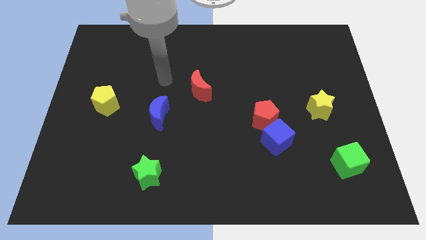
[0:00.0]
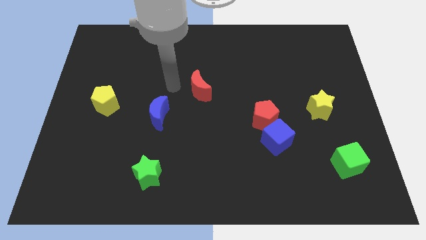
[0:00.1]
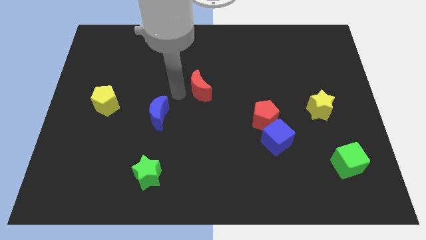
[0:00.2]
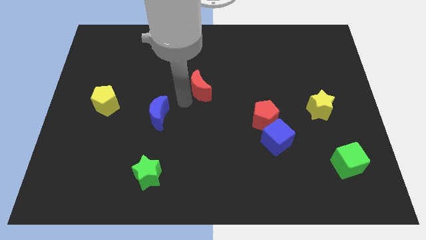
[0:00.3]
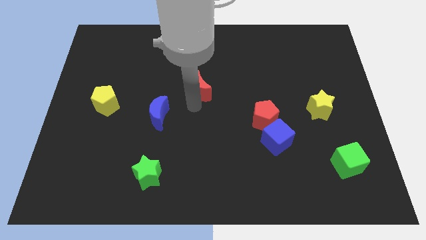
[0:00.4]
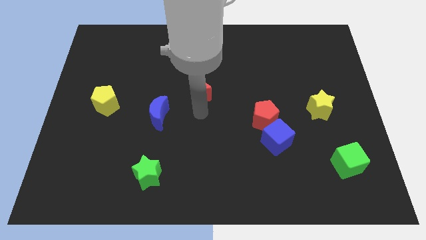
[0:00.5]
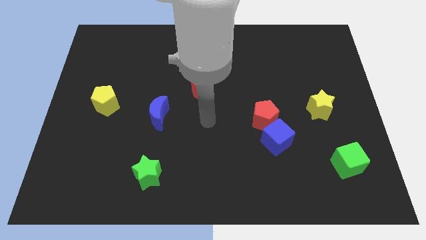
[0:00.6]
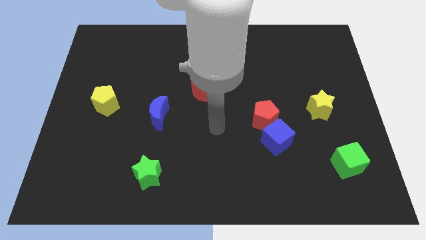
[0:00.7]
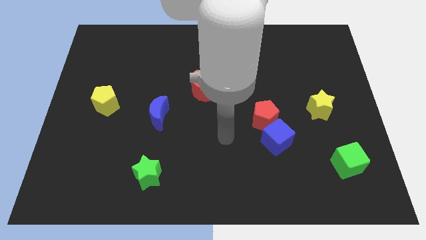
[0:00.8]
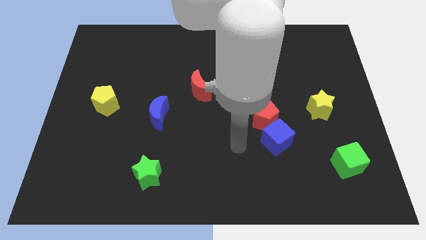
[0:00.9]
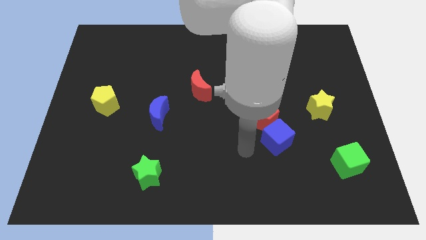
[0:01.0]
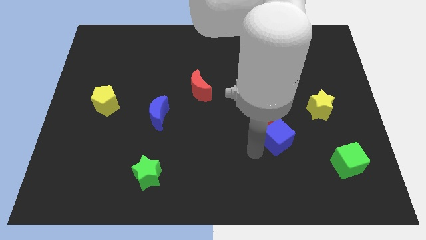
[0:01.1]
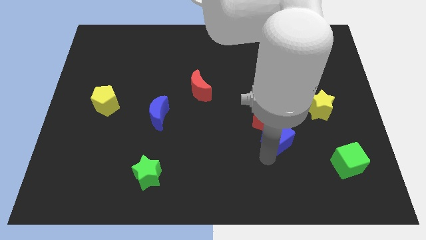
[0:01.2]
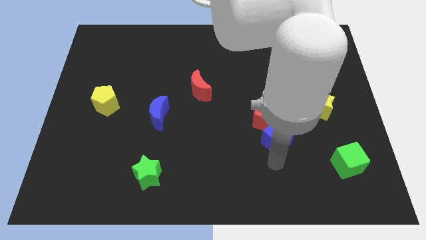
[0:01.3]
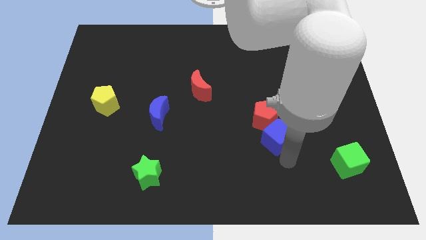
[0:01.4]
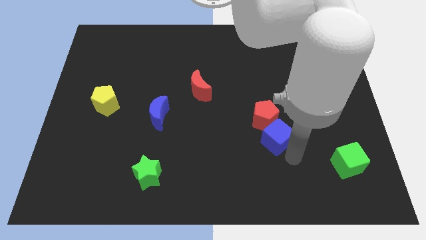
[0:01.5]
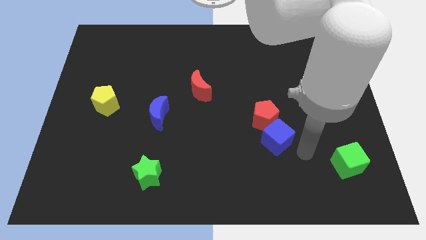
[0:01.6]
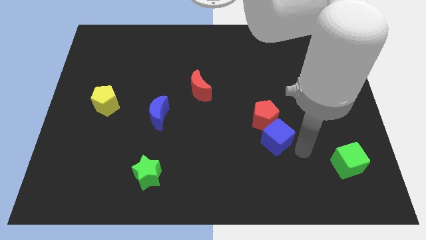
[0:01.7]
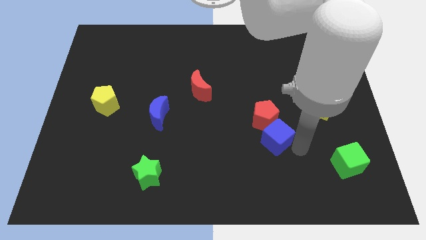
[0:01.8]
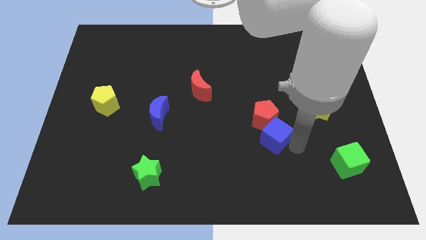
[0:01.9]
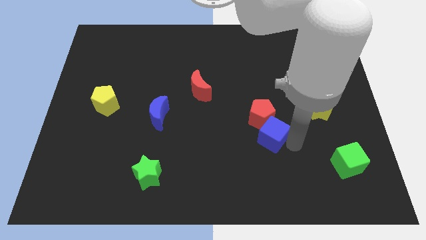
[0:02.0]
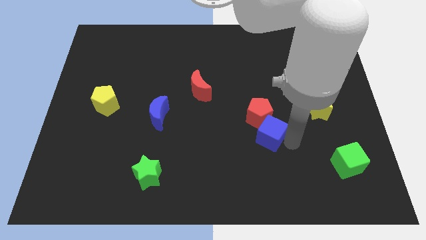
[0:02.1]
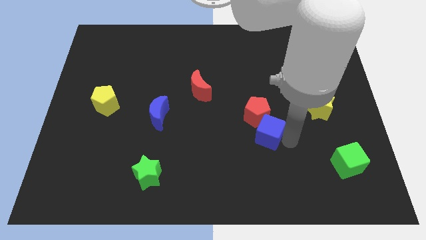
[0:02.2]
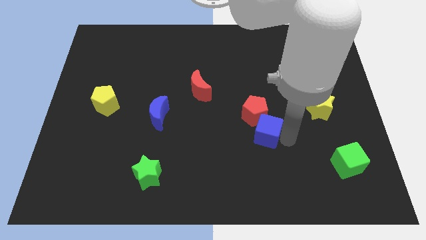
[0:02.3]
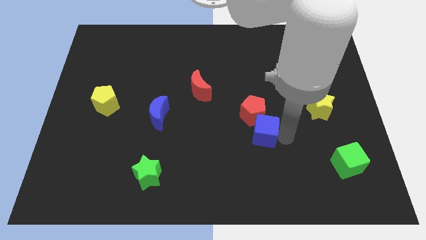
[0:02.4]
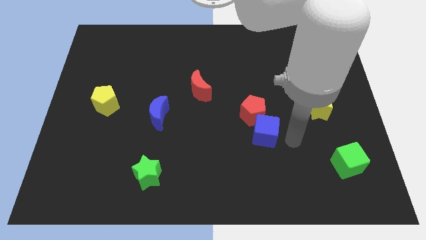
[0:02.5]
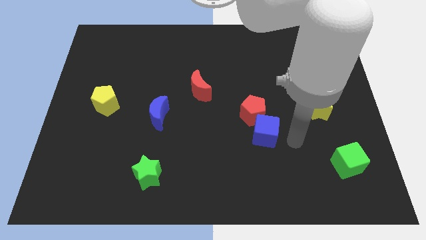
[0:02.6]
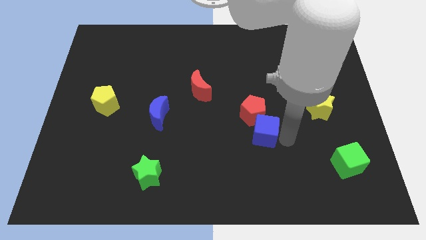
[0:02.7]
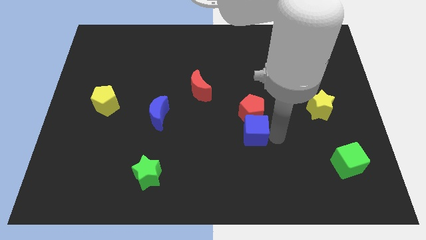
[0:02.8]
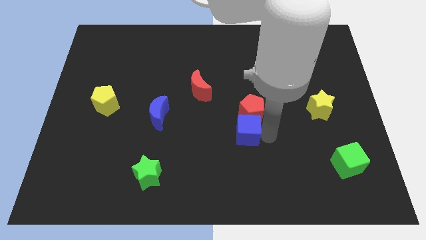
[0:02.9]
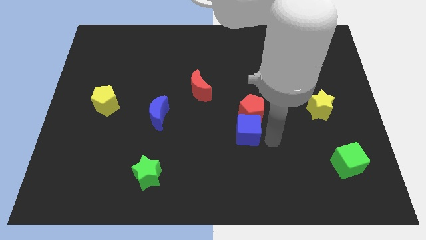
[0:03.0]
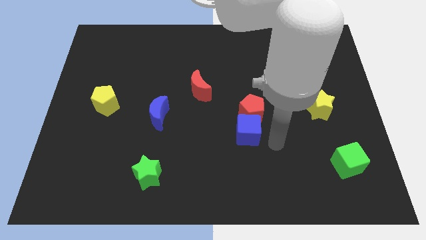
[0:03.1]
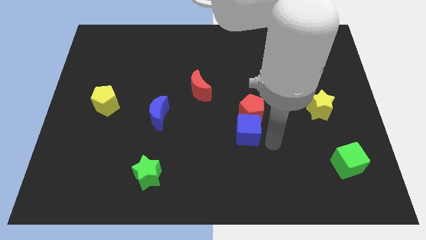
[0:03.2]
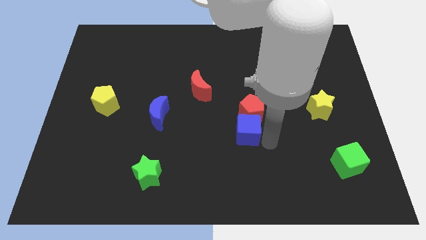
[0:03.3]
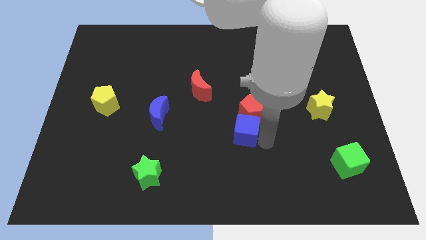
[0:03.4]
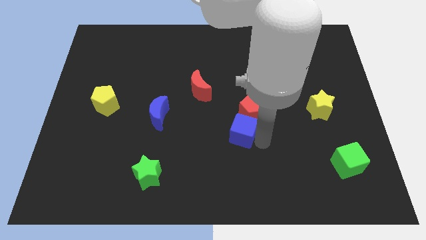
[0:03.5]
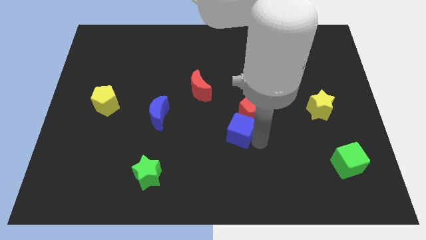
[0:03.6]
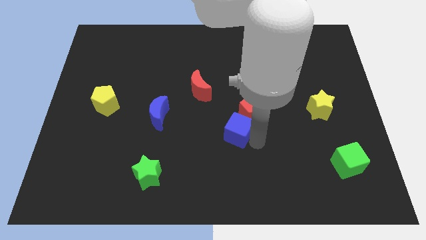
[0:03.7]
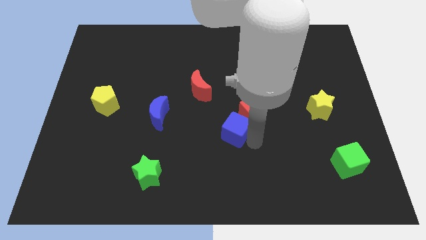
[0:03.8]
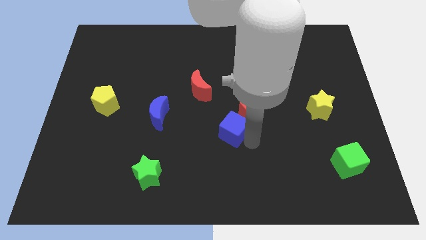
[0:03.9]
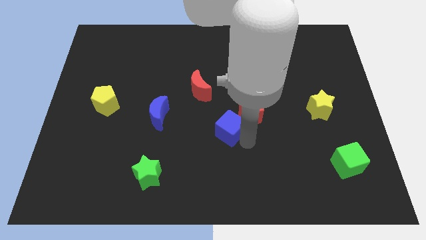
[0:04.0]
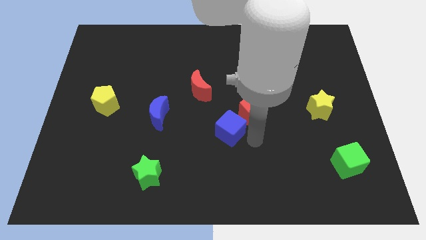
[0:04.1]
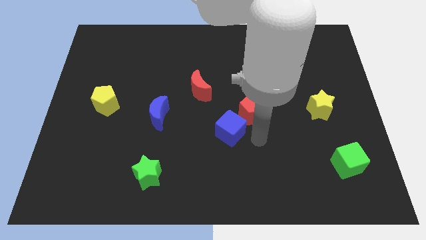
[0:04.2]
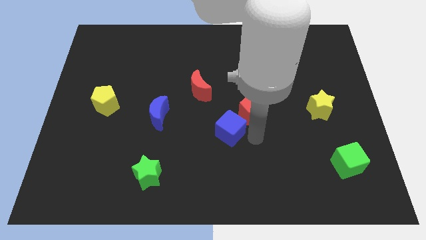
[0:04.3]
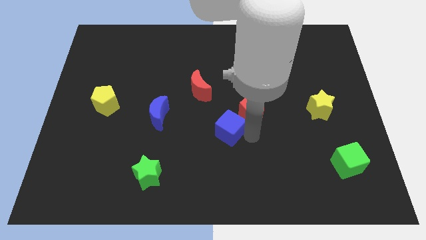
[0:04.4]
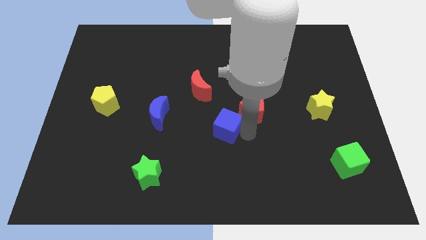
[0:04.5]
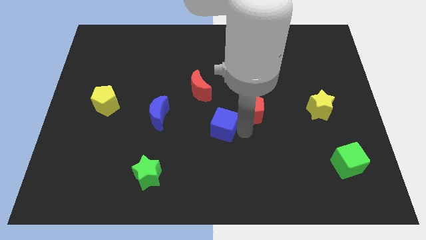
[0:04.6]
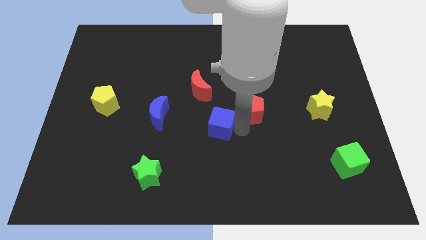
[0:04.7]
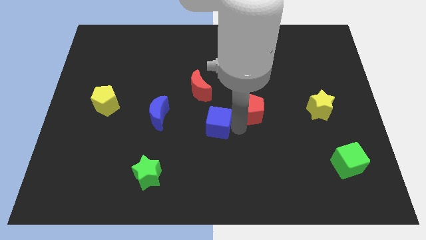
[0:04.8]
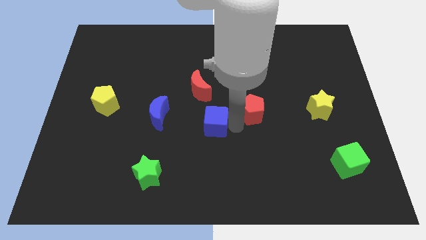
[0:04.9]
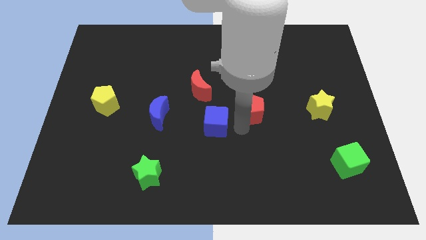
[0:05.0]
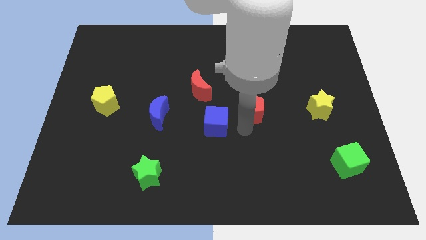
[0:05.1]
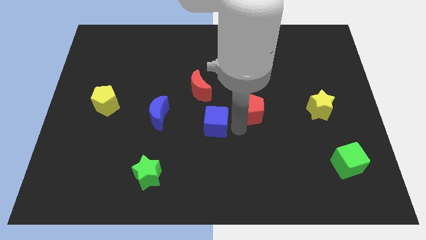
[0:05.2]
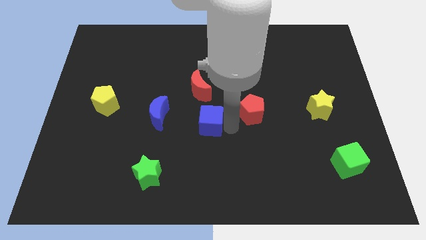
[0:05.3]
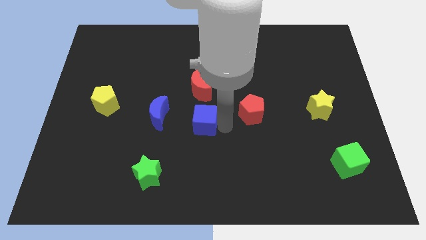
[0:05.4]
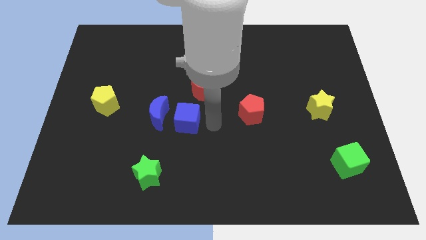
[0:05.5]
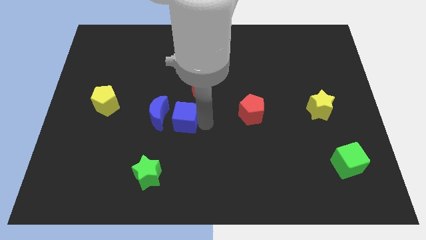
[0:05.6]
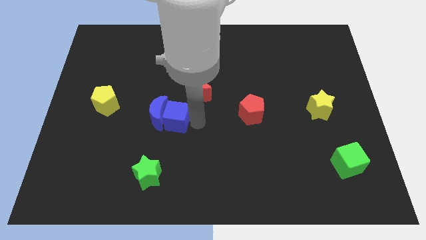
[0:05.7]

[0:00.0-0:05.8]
put the blue cube towards the blue moon

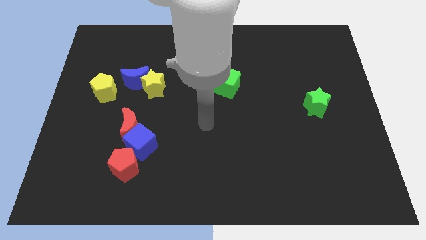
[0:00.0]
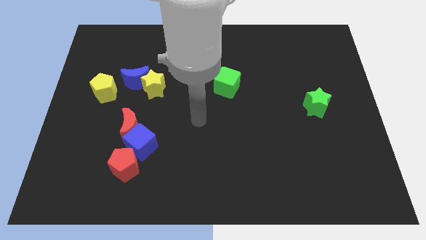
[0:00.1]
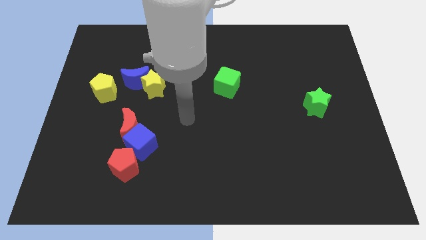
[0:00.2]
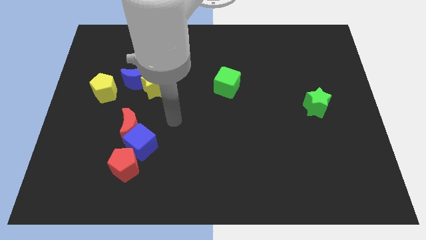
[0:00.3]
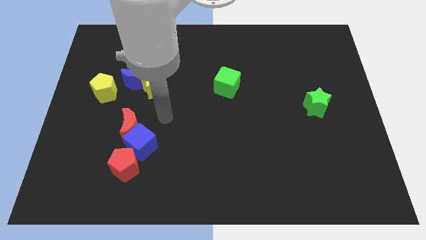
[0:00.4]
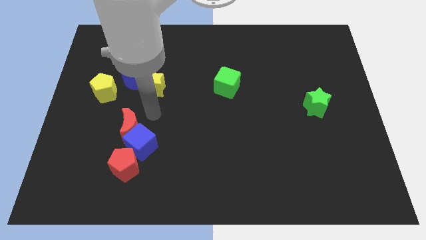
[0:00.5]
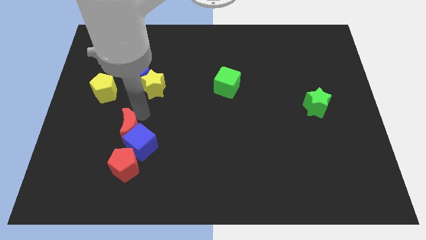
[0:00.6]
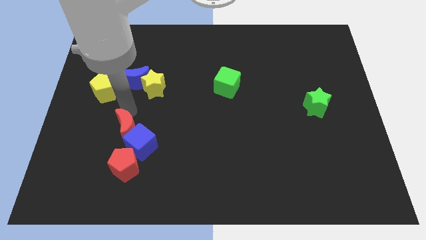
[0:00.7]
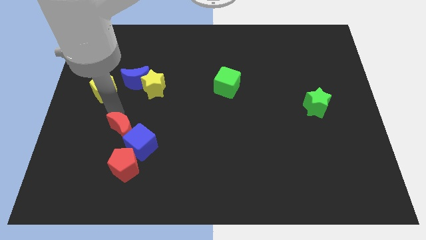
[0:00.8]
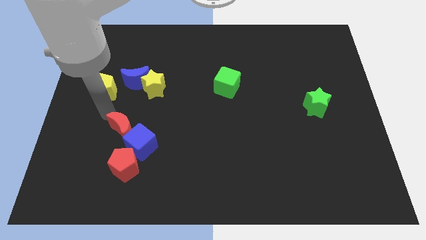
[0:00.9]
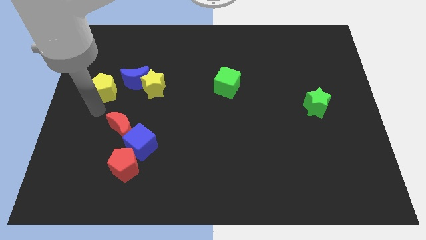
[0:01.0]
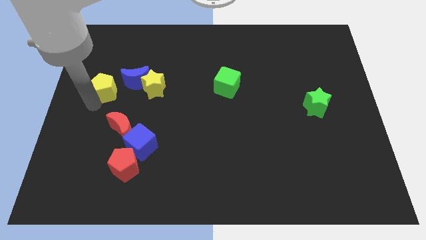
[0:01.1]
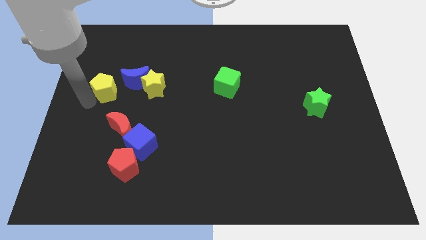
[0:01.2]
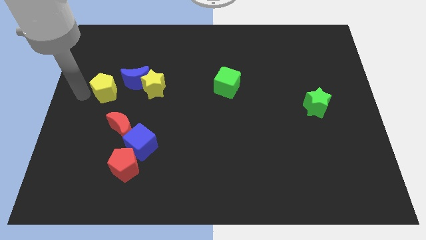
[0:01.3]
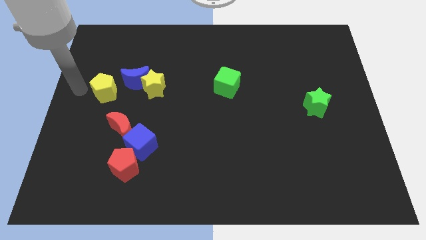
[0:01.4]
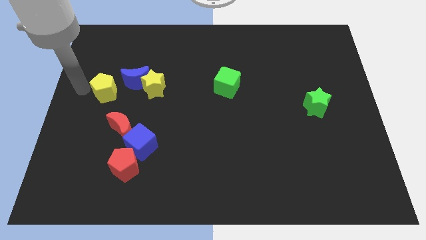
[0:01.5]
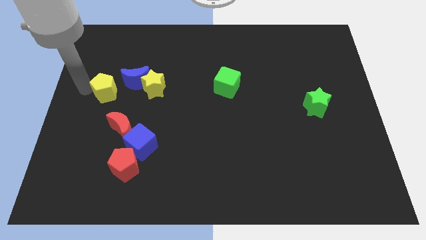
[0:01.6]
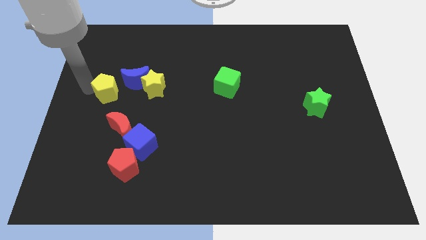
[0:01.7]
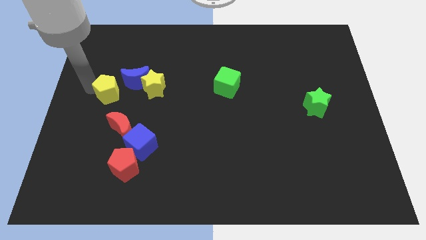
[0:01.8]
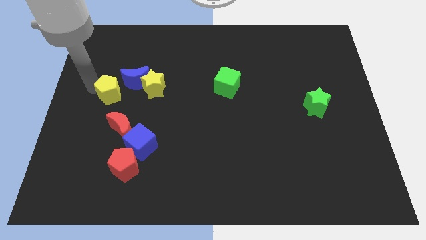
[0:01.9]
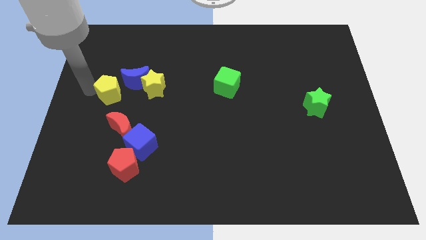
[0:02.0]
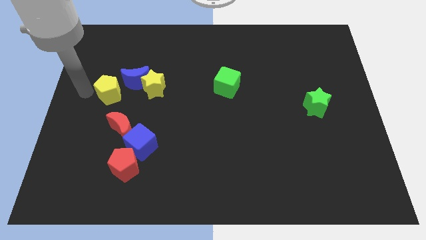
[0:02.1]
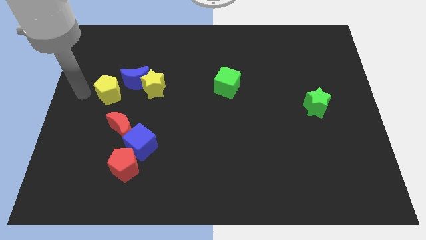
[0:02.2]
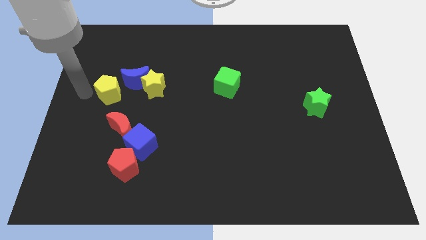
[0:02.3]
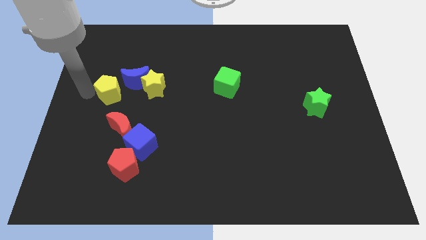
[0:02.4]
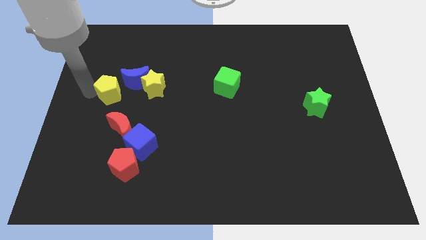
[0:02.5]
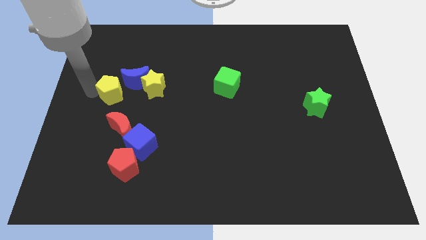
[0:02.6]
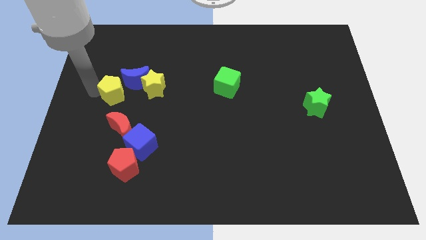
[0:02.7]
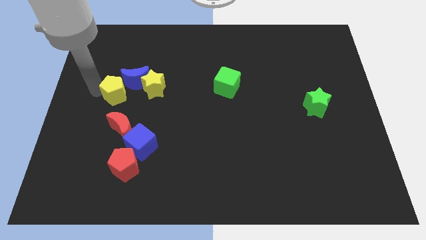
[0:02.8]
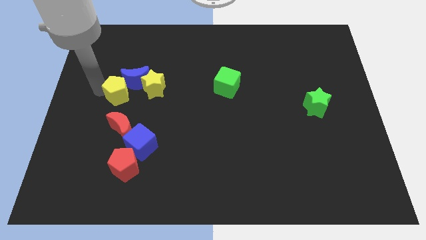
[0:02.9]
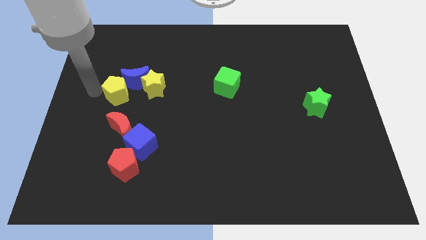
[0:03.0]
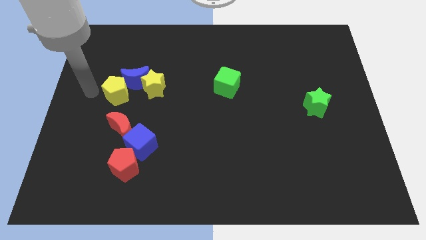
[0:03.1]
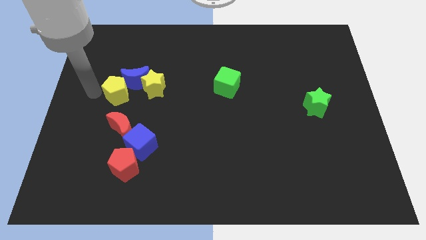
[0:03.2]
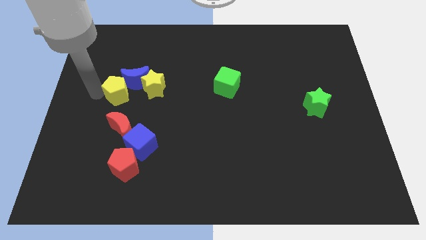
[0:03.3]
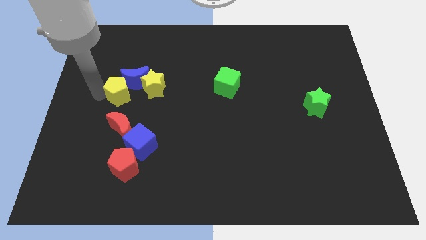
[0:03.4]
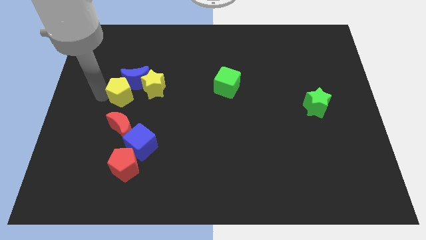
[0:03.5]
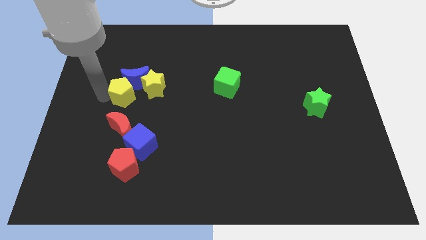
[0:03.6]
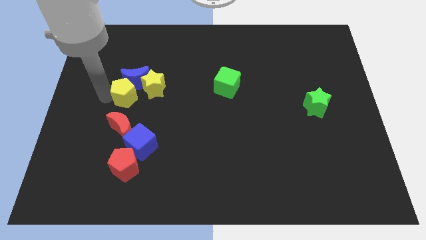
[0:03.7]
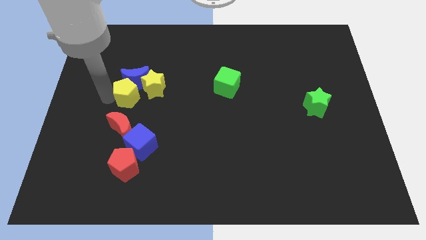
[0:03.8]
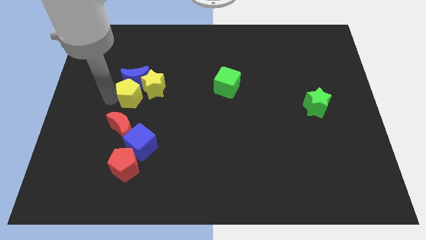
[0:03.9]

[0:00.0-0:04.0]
push the yellow pentagon to the yellow star
